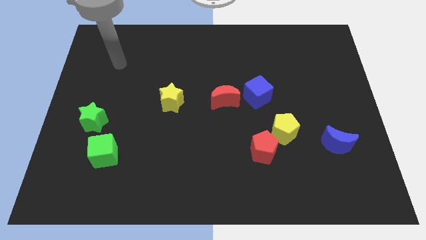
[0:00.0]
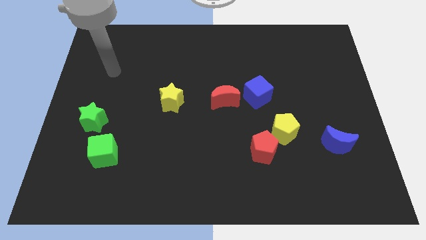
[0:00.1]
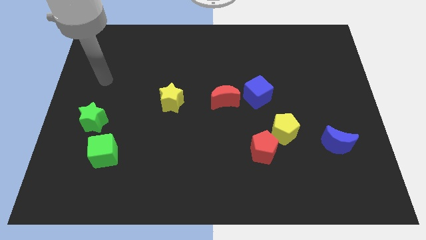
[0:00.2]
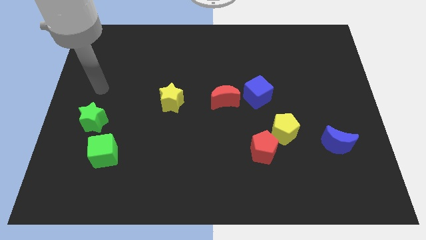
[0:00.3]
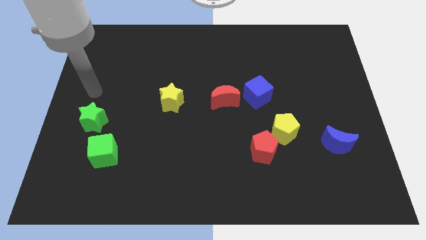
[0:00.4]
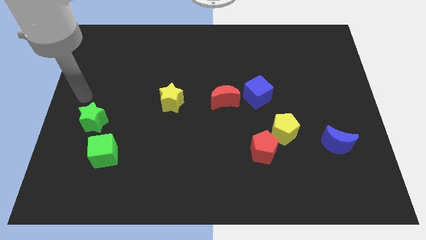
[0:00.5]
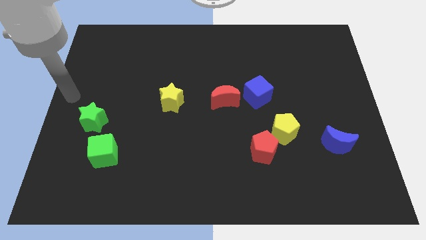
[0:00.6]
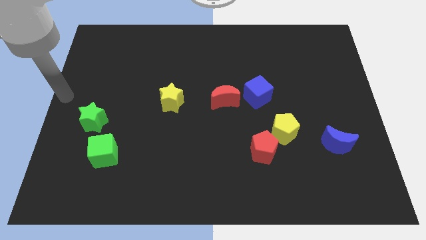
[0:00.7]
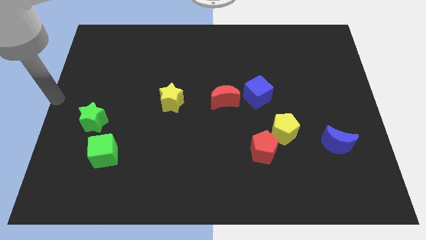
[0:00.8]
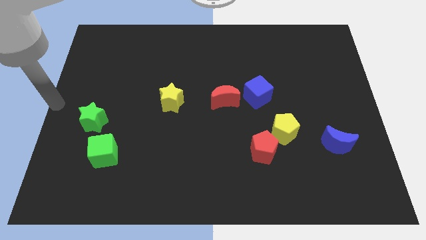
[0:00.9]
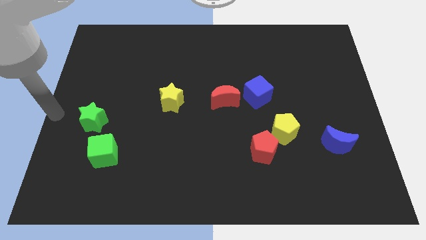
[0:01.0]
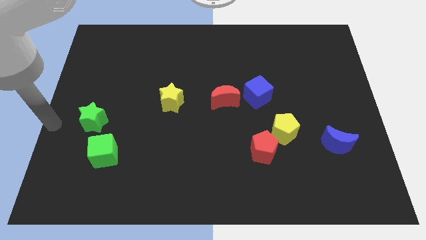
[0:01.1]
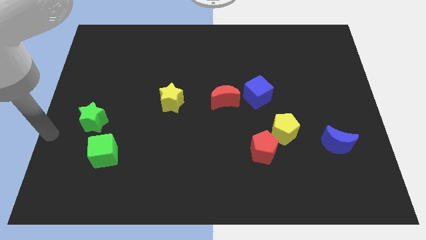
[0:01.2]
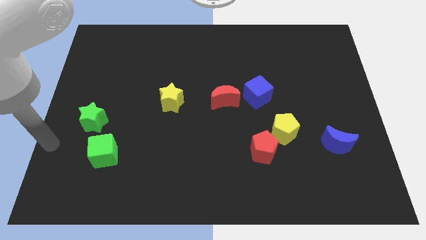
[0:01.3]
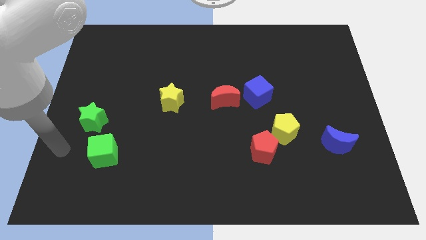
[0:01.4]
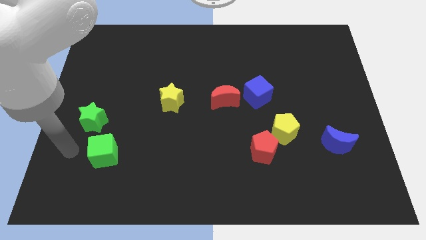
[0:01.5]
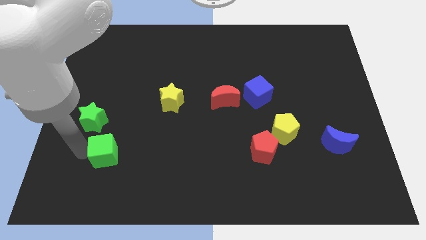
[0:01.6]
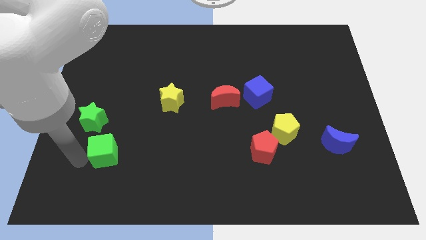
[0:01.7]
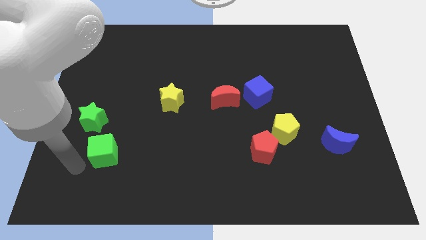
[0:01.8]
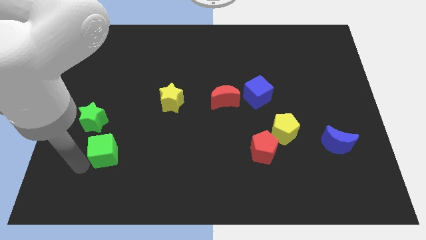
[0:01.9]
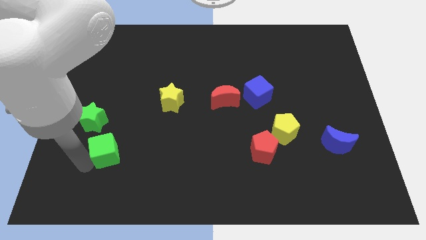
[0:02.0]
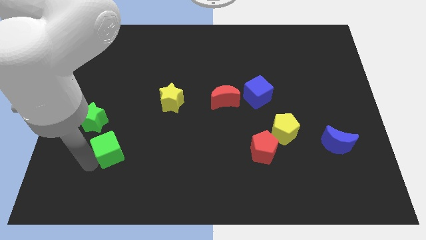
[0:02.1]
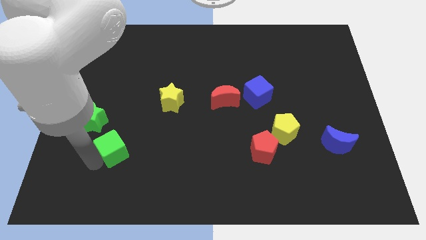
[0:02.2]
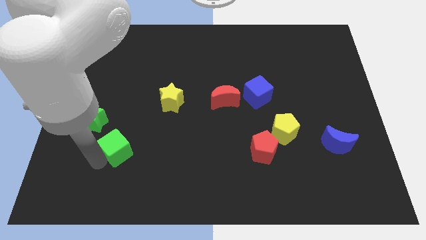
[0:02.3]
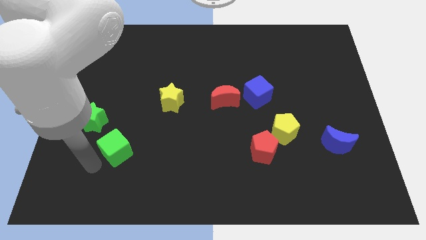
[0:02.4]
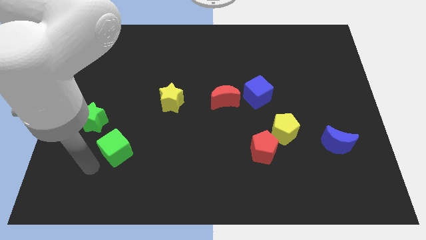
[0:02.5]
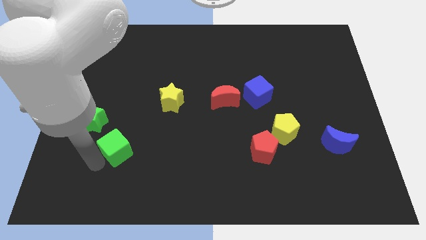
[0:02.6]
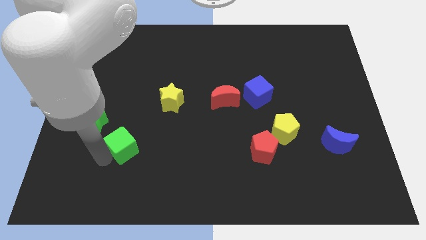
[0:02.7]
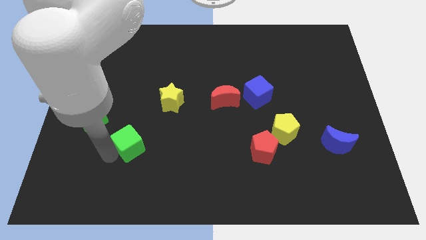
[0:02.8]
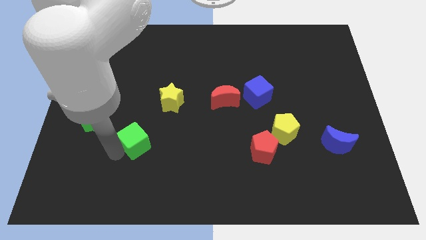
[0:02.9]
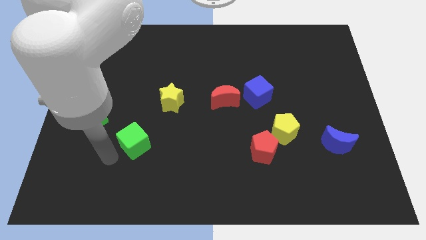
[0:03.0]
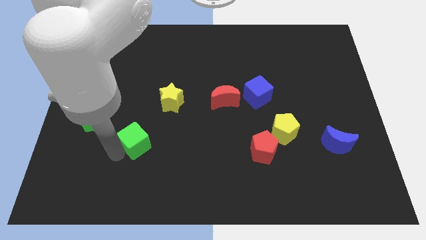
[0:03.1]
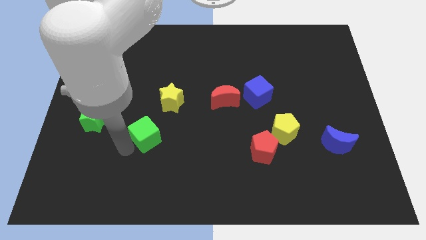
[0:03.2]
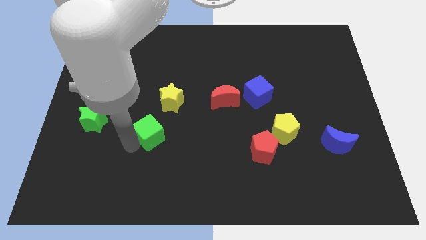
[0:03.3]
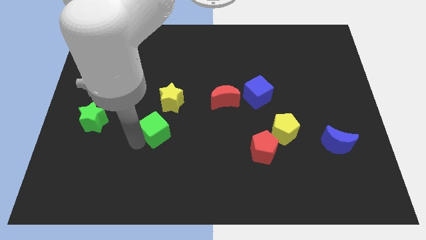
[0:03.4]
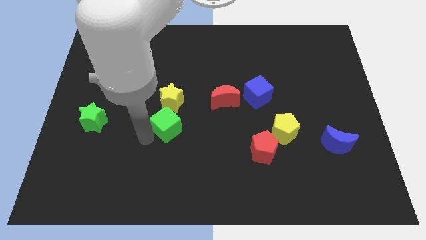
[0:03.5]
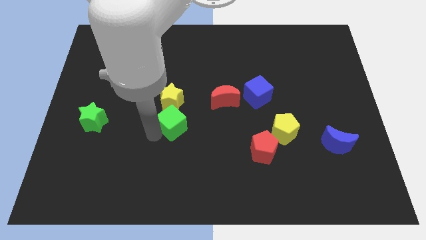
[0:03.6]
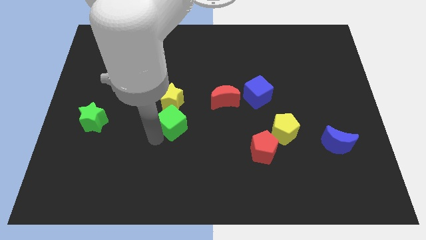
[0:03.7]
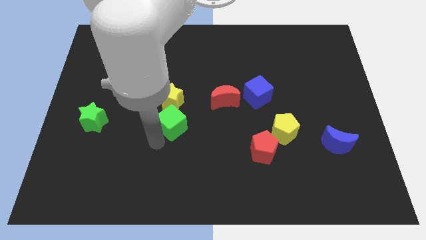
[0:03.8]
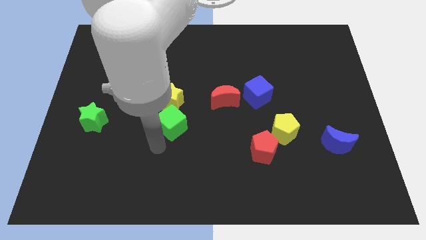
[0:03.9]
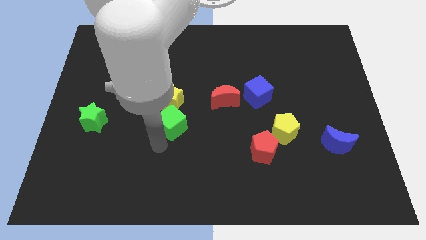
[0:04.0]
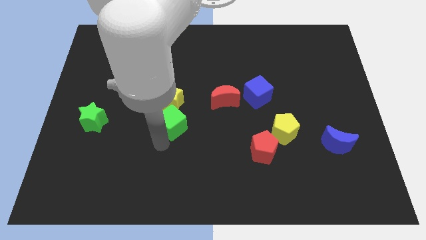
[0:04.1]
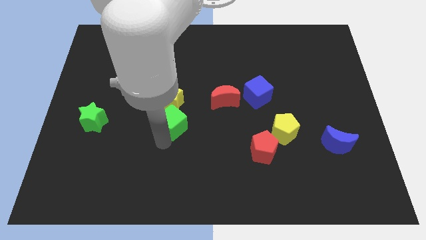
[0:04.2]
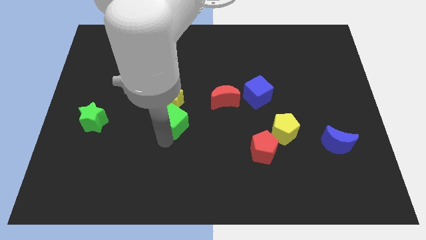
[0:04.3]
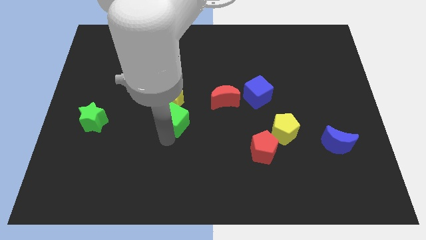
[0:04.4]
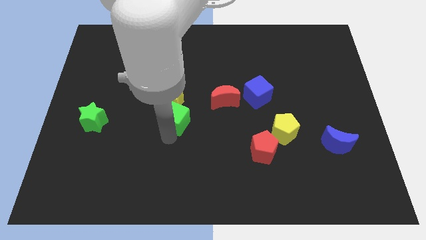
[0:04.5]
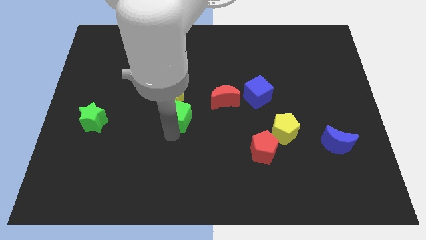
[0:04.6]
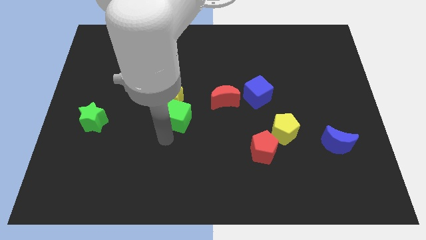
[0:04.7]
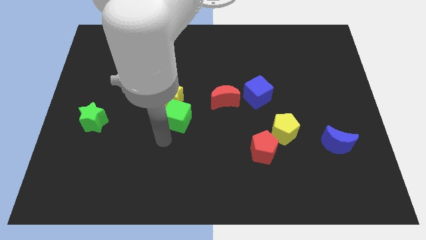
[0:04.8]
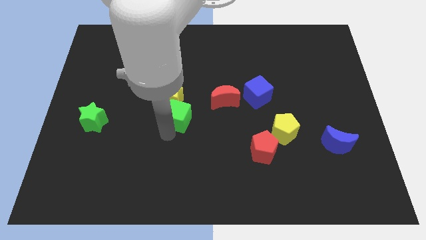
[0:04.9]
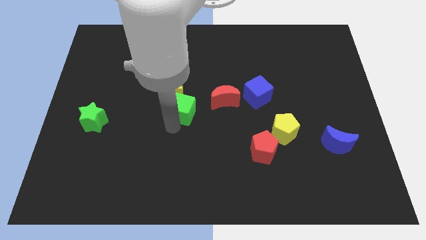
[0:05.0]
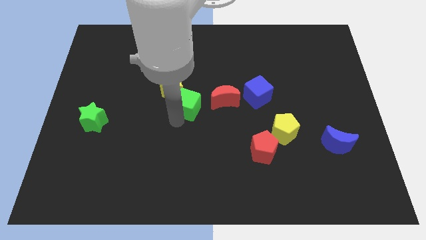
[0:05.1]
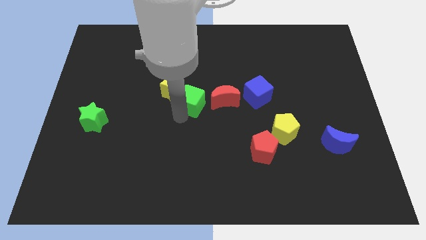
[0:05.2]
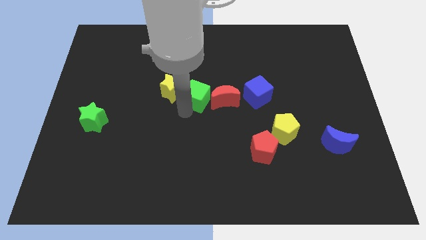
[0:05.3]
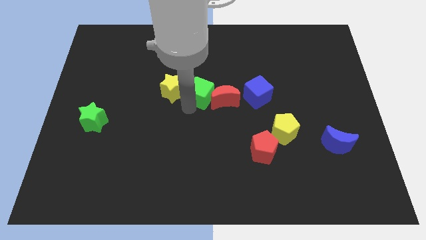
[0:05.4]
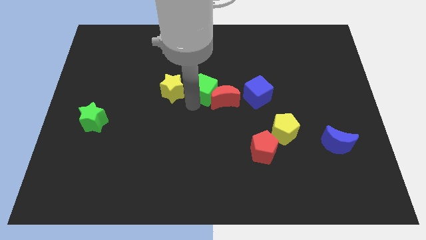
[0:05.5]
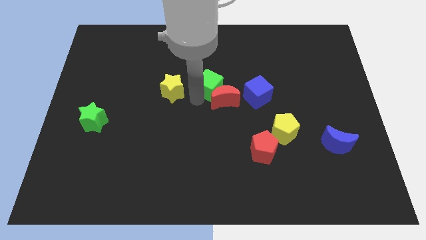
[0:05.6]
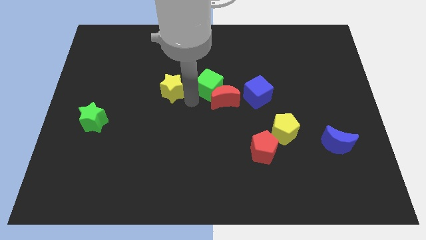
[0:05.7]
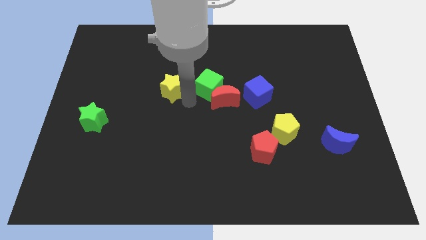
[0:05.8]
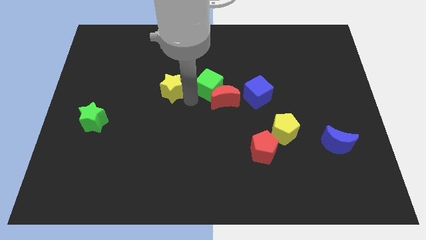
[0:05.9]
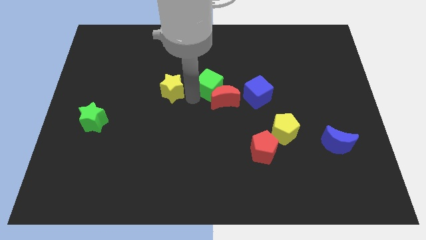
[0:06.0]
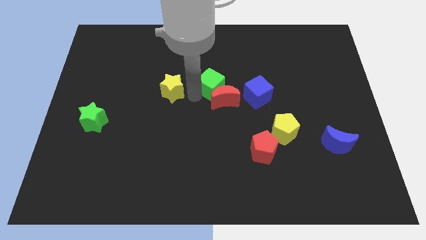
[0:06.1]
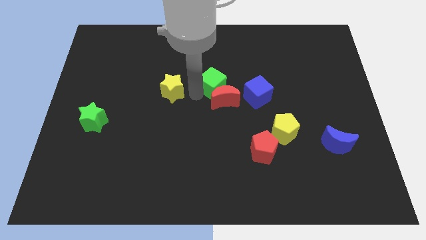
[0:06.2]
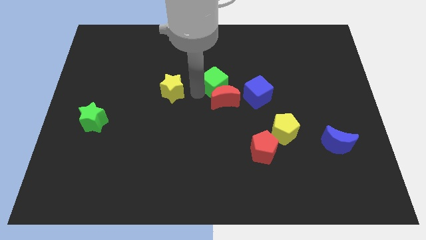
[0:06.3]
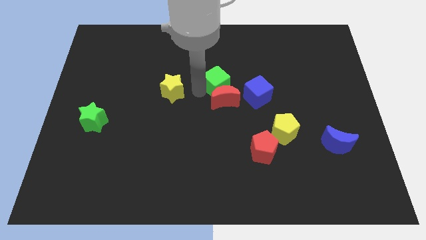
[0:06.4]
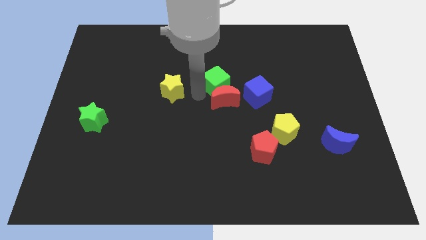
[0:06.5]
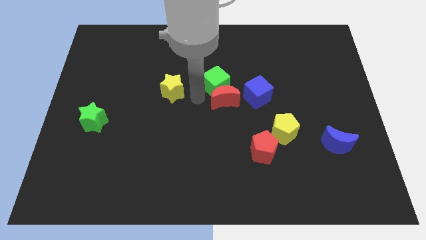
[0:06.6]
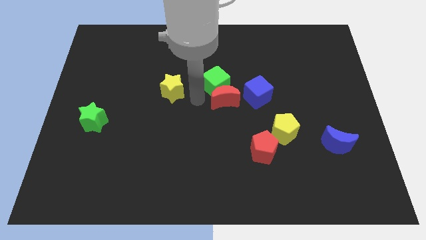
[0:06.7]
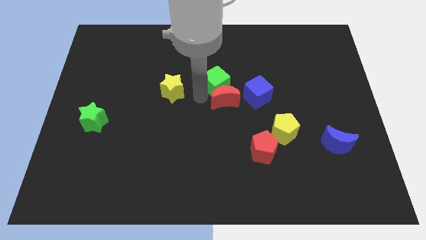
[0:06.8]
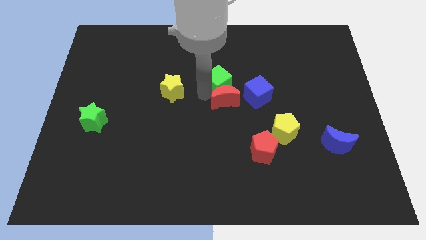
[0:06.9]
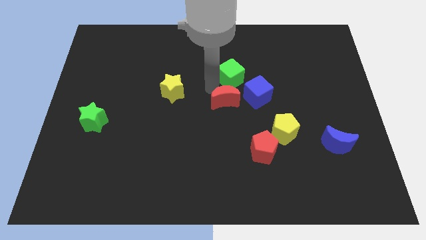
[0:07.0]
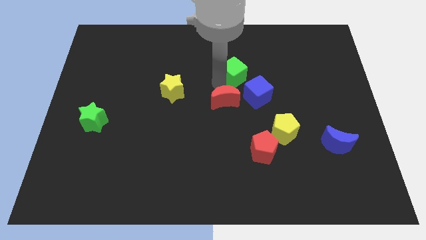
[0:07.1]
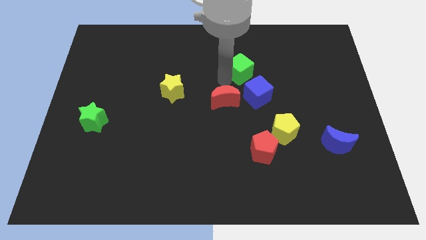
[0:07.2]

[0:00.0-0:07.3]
push the green cube to the top side of the blue cube
